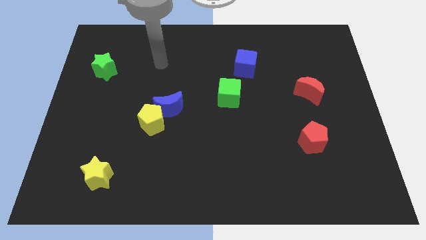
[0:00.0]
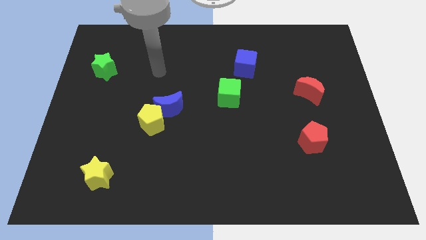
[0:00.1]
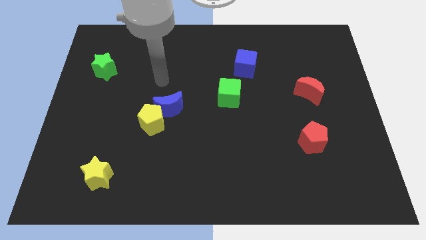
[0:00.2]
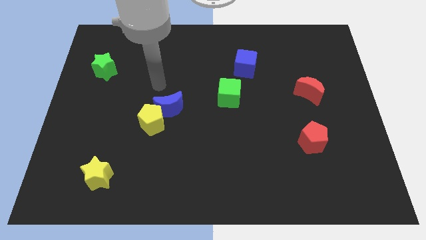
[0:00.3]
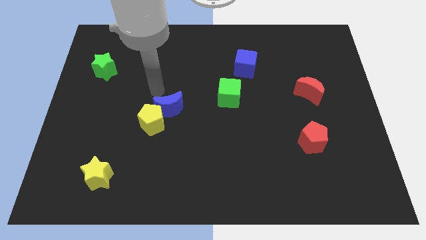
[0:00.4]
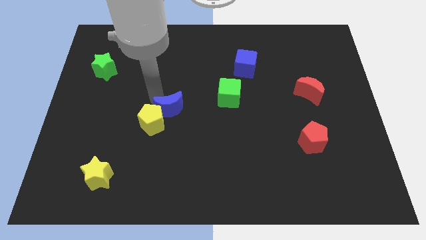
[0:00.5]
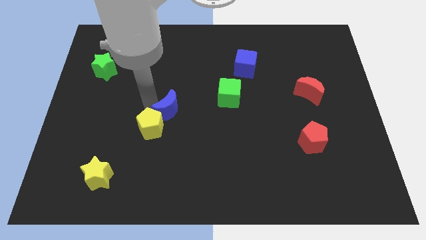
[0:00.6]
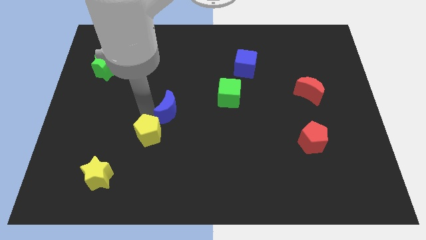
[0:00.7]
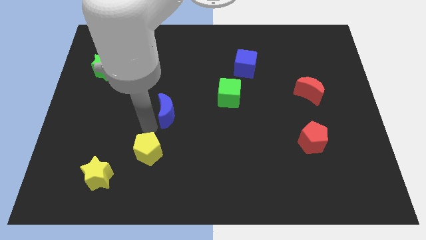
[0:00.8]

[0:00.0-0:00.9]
separate the blue moon from the yellow pentagon

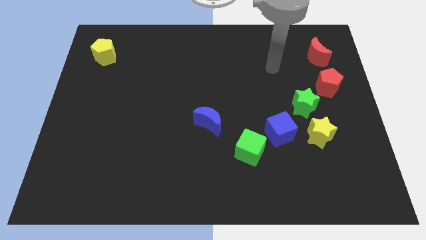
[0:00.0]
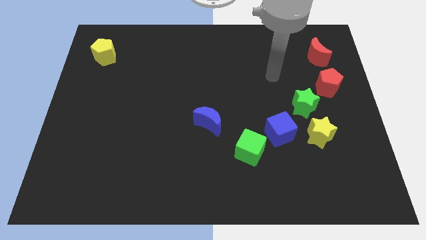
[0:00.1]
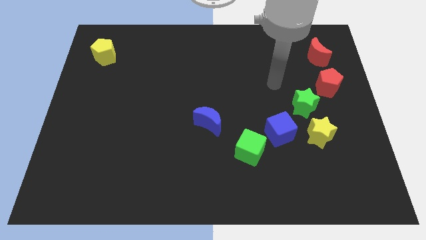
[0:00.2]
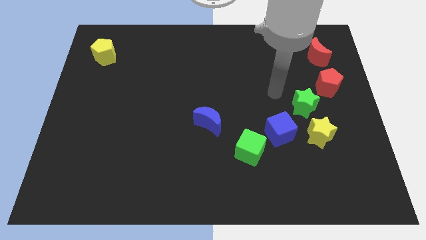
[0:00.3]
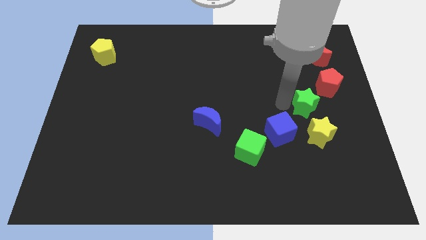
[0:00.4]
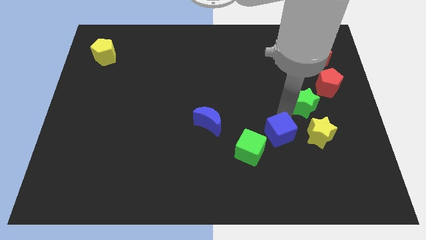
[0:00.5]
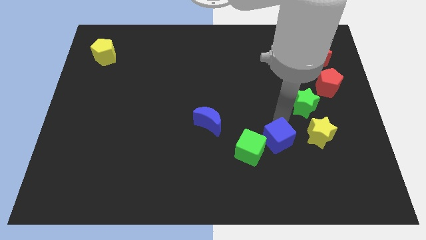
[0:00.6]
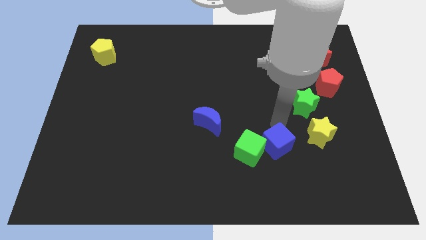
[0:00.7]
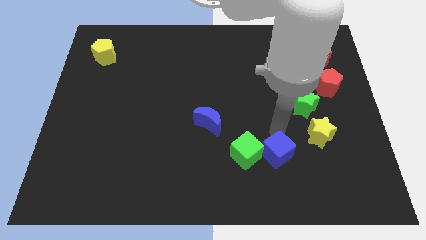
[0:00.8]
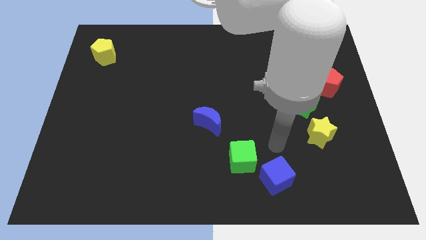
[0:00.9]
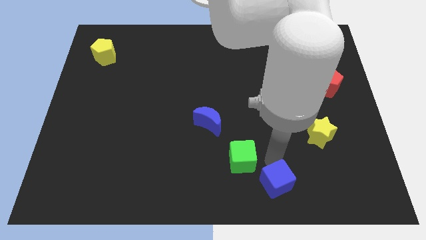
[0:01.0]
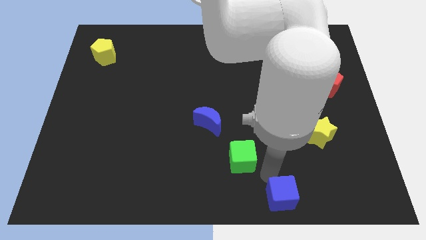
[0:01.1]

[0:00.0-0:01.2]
pull the green cube apart from the blue cube

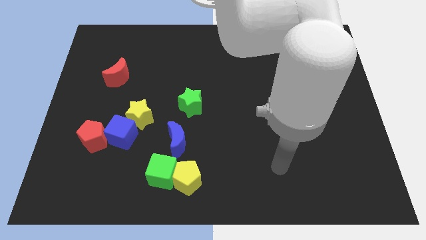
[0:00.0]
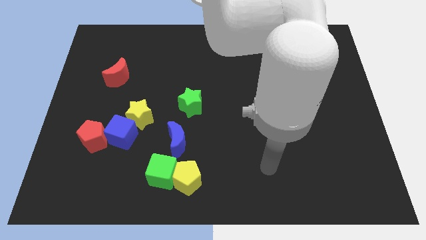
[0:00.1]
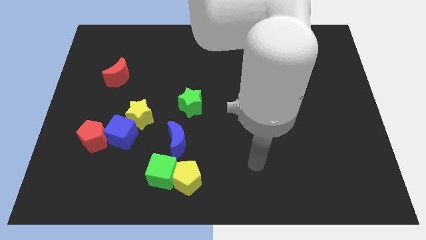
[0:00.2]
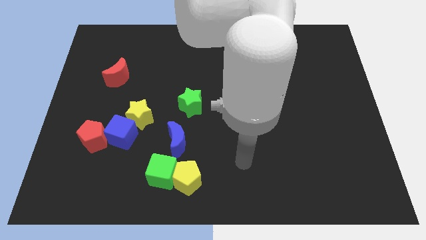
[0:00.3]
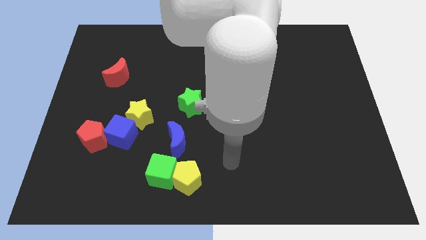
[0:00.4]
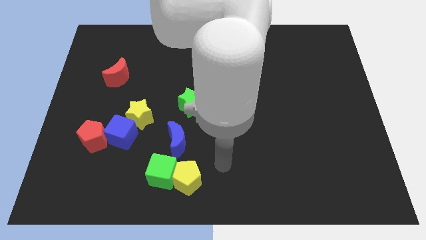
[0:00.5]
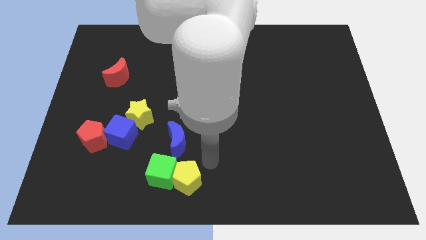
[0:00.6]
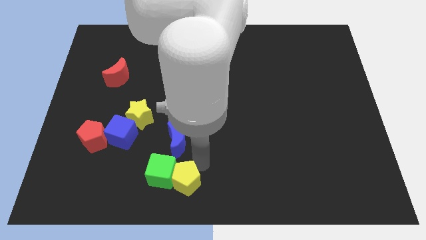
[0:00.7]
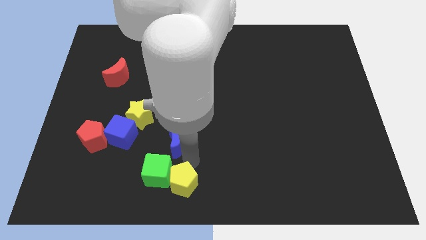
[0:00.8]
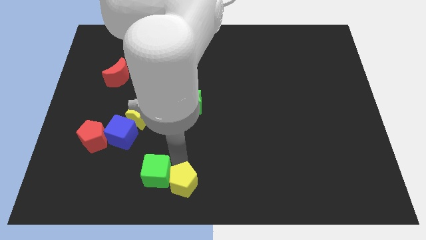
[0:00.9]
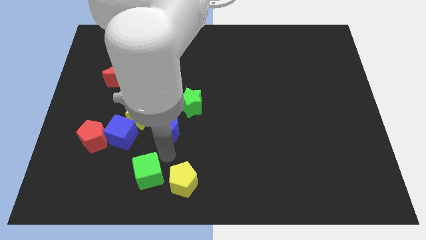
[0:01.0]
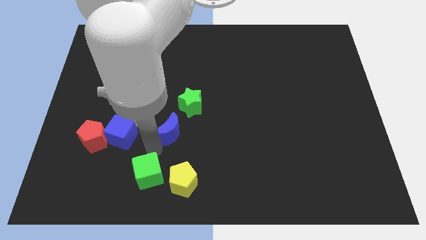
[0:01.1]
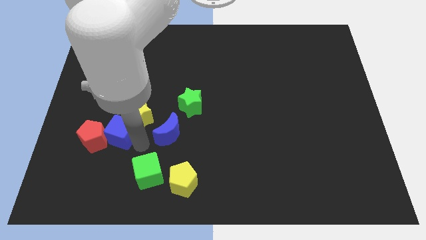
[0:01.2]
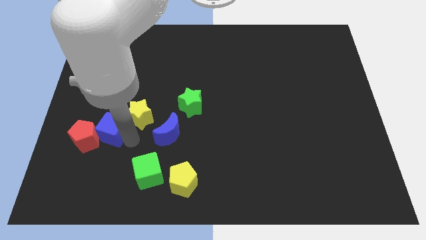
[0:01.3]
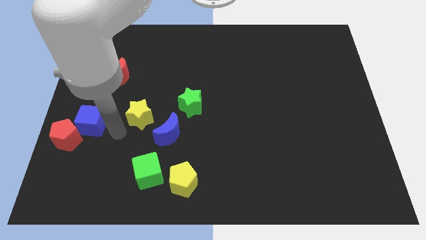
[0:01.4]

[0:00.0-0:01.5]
pull the yellow star apart from the blue cube

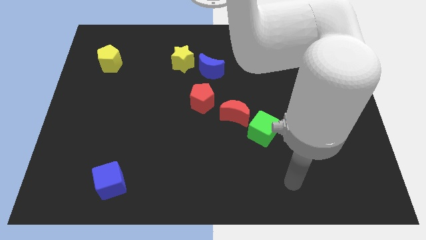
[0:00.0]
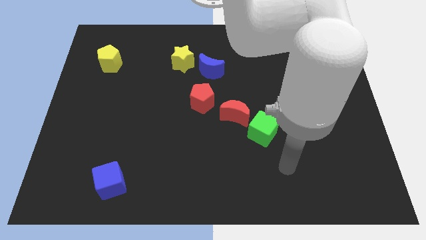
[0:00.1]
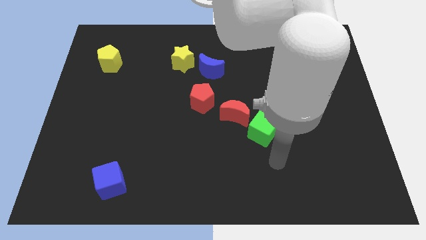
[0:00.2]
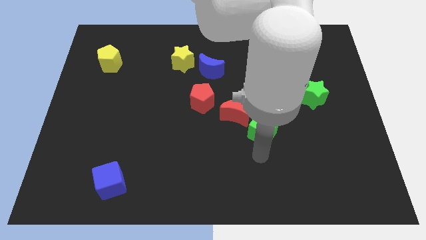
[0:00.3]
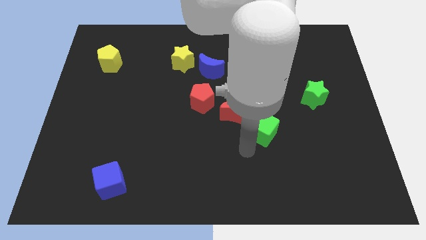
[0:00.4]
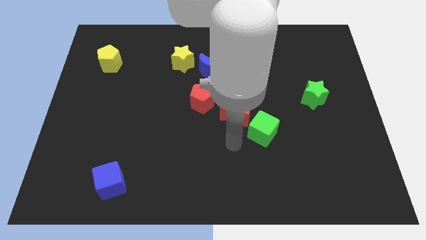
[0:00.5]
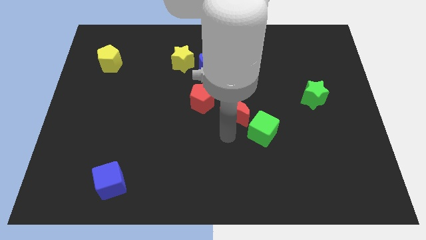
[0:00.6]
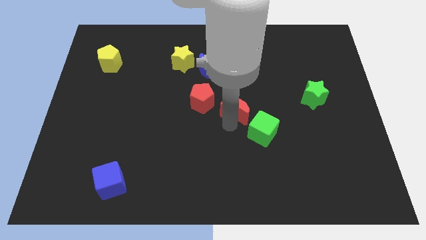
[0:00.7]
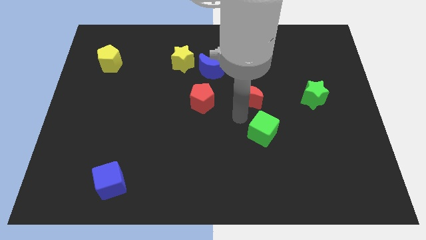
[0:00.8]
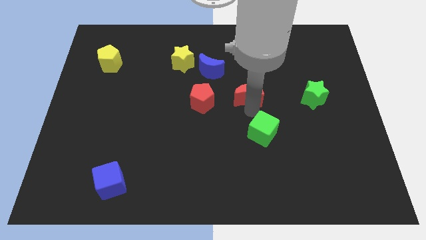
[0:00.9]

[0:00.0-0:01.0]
move the green cube away from the red moon

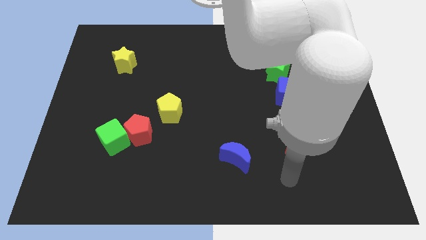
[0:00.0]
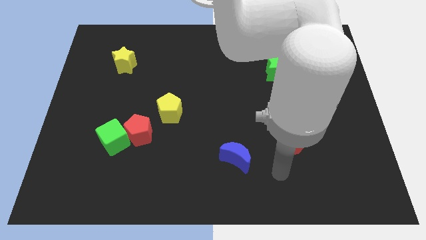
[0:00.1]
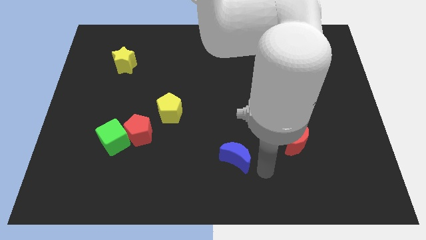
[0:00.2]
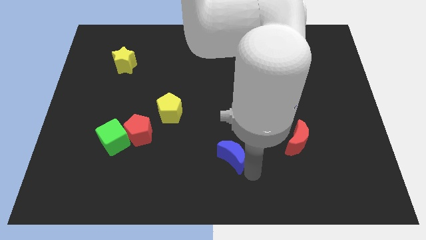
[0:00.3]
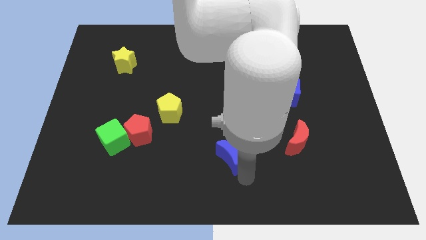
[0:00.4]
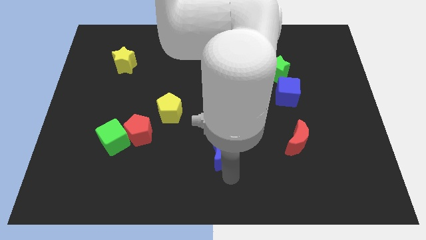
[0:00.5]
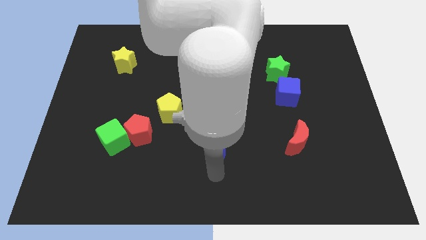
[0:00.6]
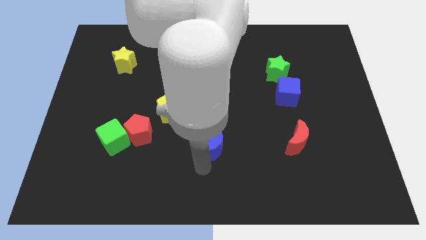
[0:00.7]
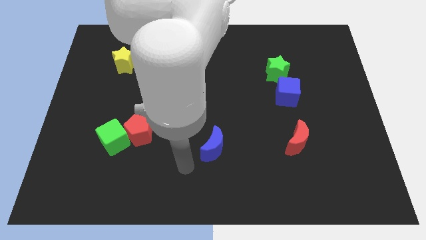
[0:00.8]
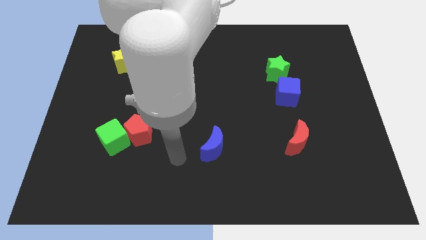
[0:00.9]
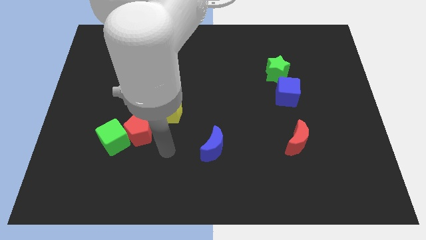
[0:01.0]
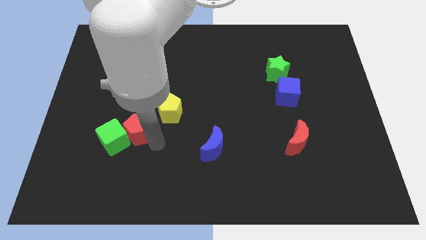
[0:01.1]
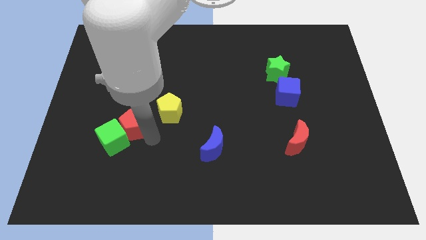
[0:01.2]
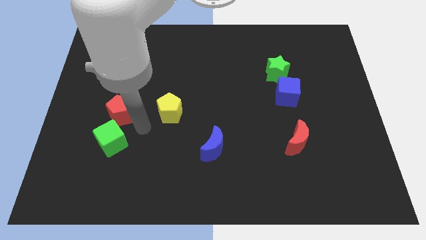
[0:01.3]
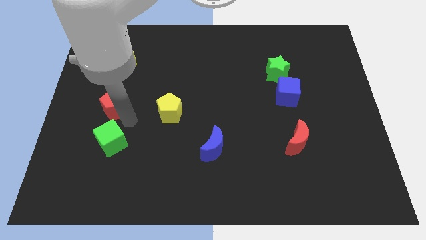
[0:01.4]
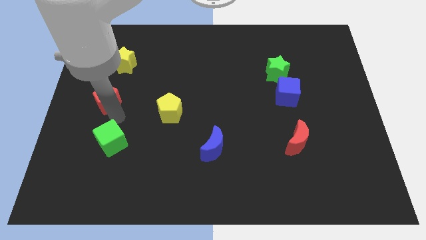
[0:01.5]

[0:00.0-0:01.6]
move the green cube away from the red pentagon

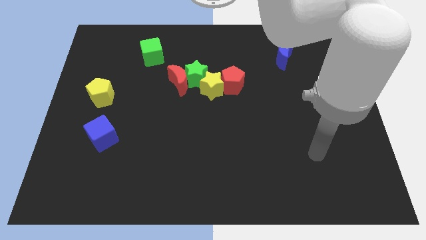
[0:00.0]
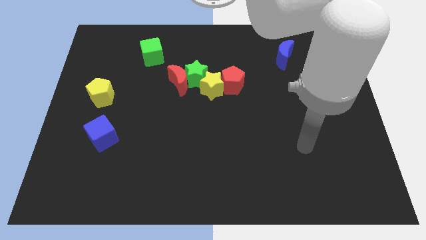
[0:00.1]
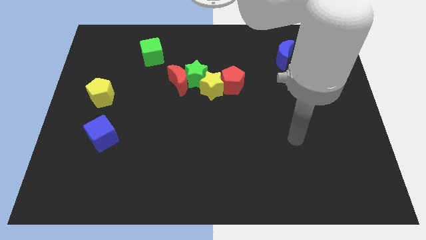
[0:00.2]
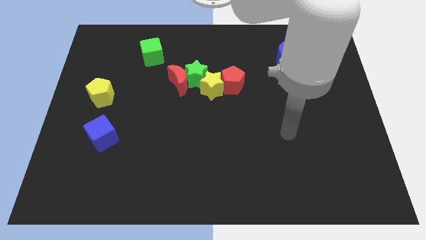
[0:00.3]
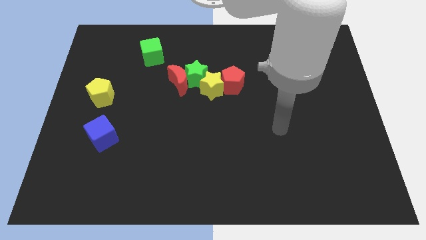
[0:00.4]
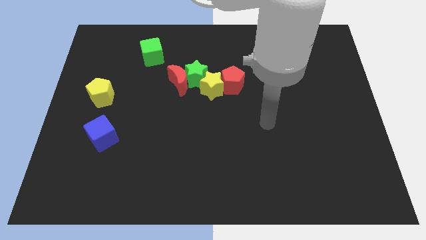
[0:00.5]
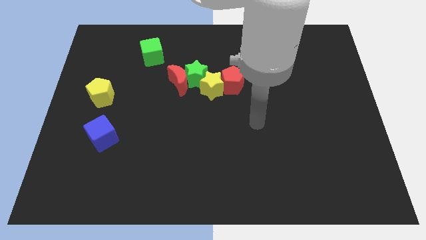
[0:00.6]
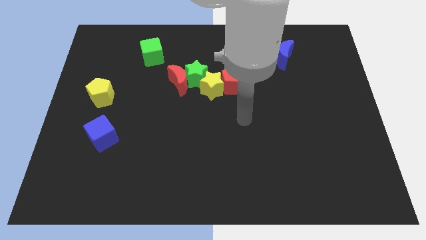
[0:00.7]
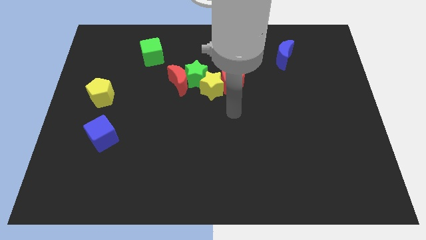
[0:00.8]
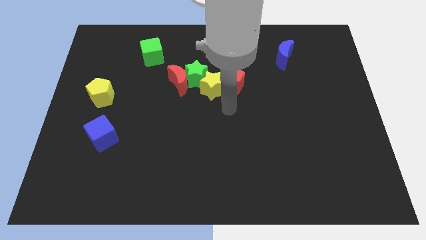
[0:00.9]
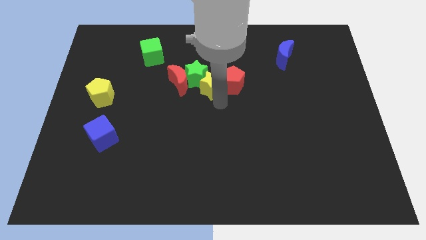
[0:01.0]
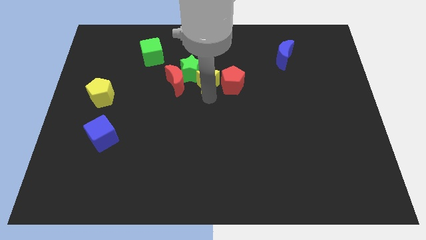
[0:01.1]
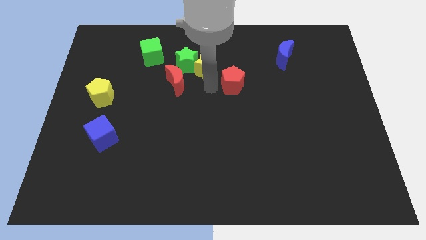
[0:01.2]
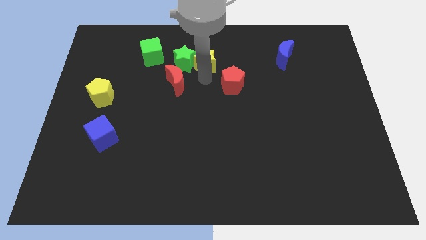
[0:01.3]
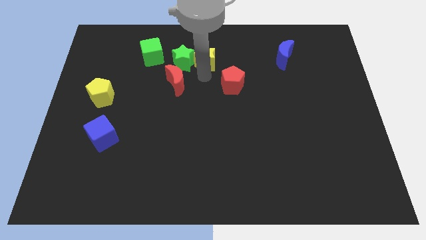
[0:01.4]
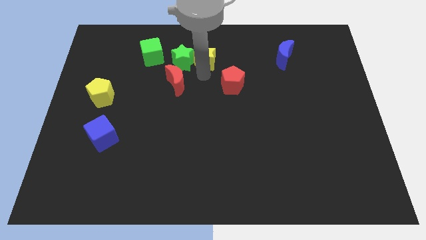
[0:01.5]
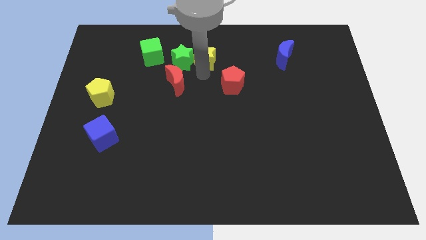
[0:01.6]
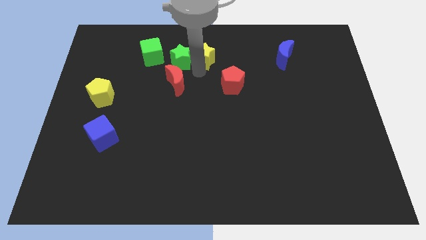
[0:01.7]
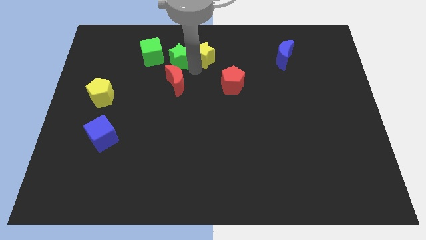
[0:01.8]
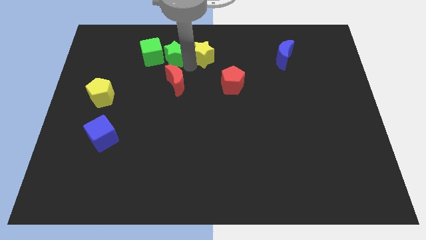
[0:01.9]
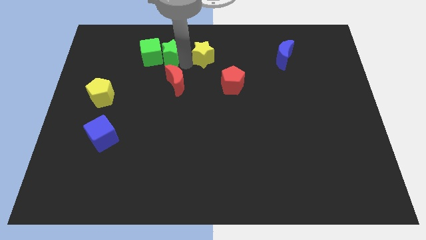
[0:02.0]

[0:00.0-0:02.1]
pull the green star apart from the group of blocks

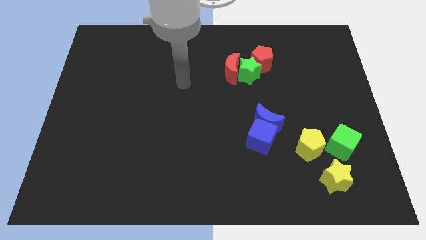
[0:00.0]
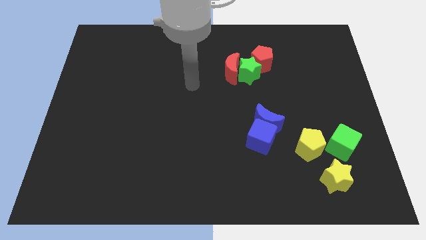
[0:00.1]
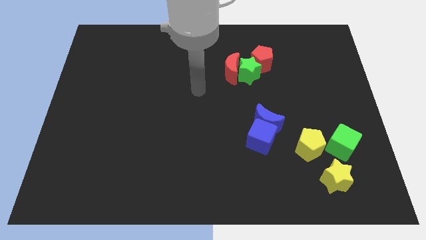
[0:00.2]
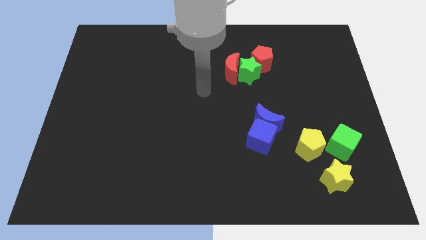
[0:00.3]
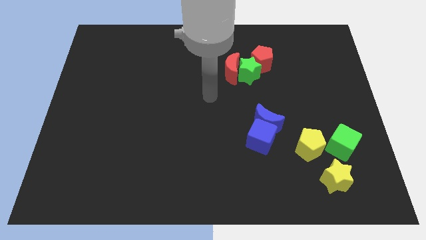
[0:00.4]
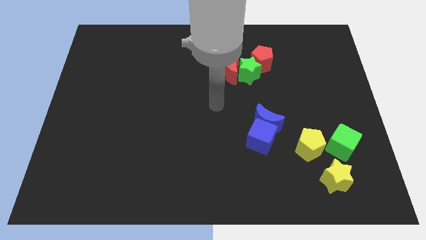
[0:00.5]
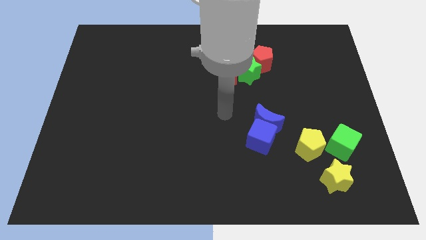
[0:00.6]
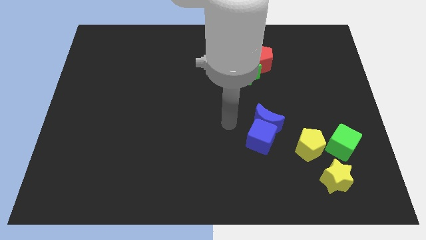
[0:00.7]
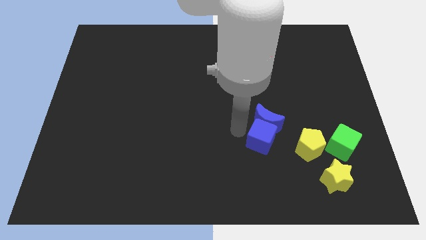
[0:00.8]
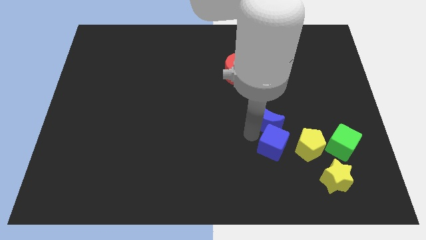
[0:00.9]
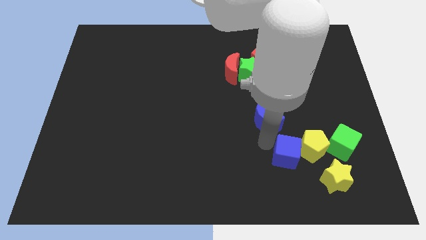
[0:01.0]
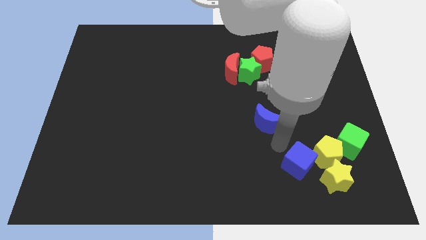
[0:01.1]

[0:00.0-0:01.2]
separate the blue moon from the blue cube
